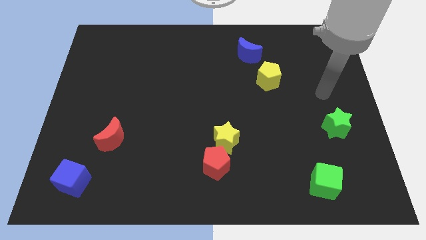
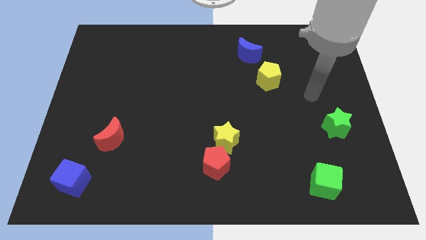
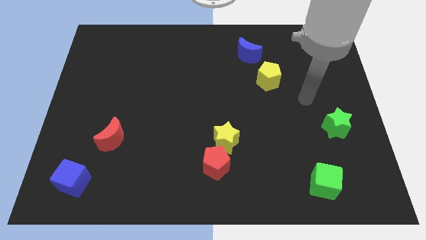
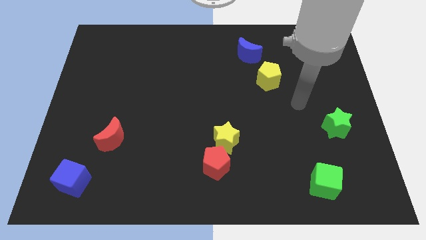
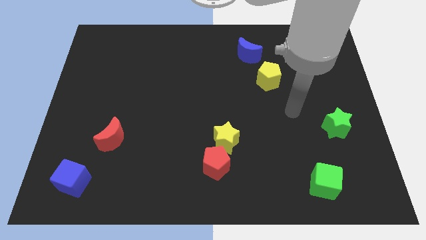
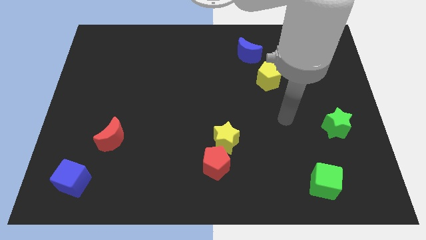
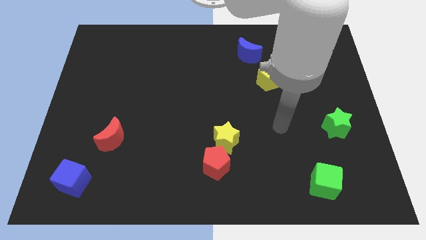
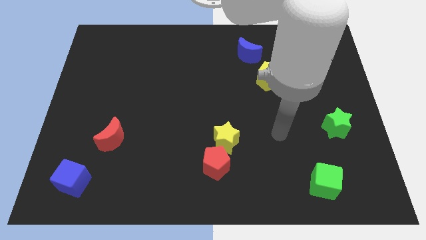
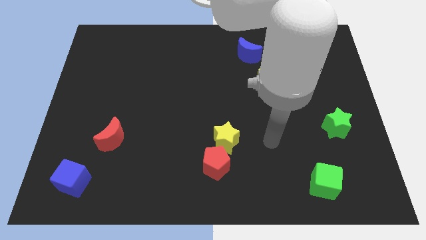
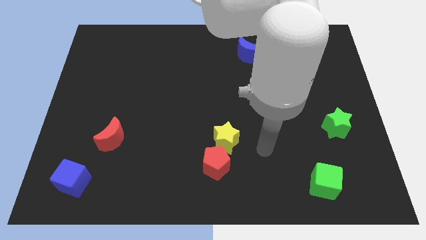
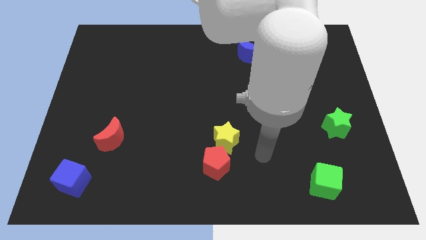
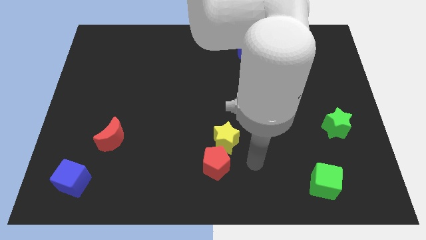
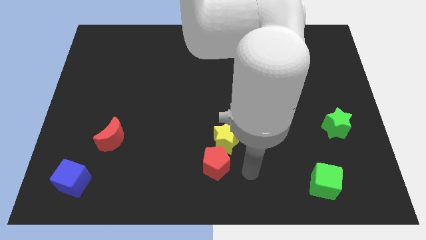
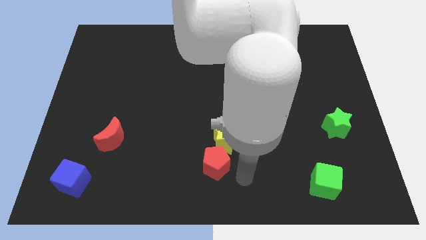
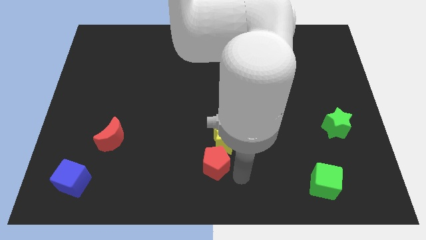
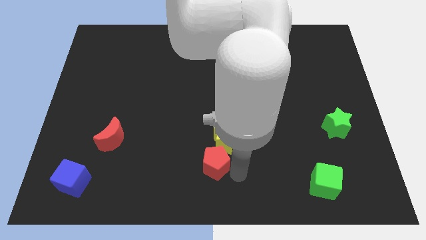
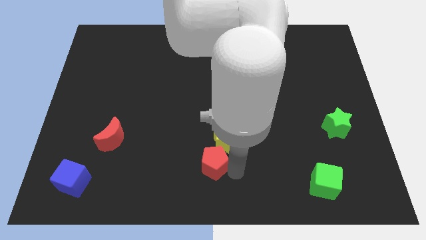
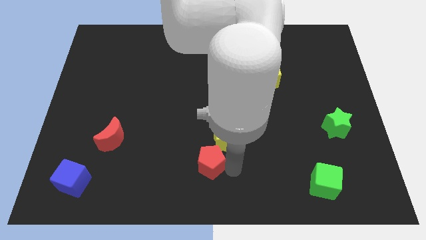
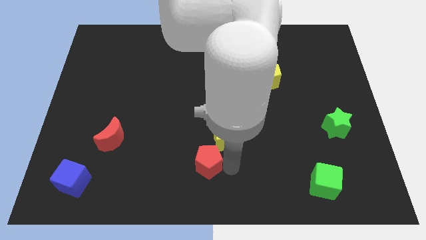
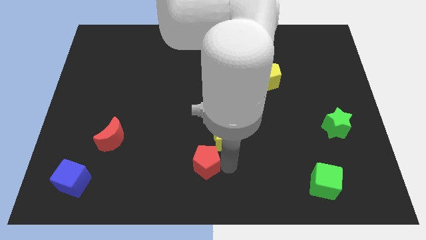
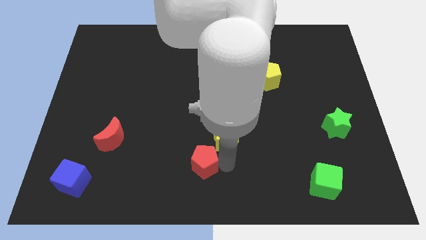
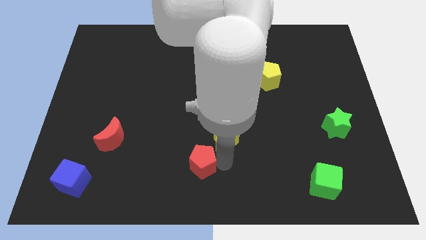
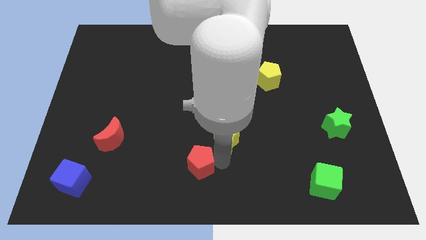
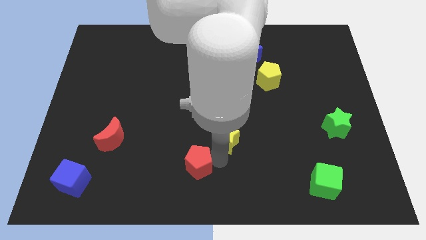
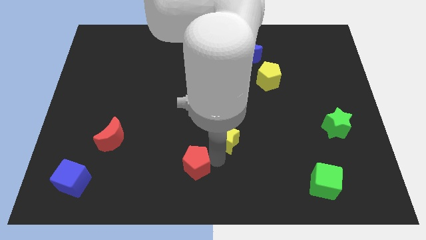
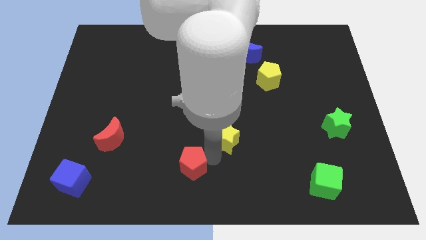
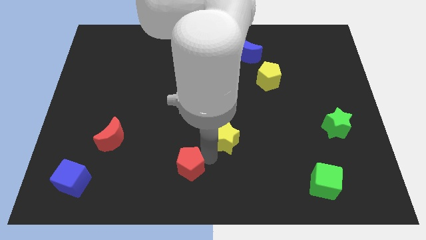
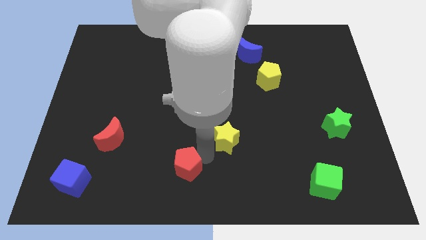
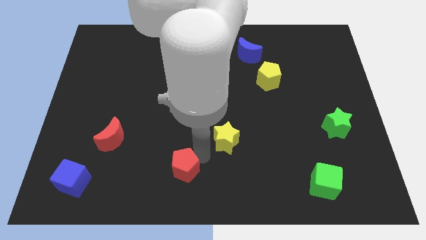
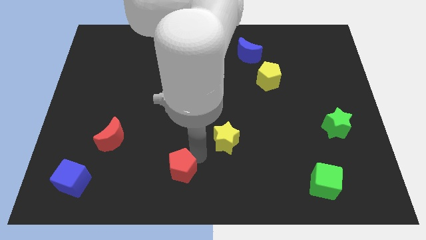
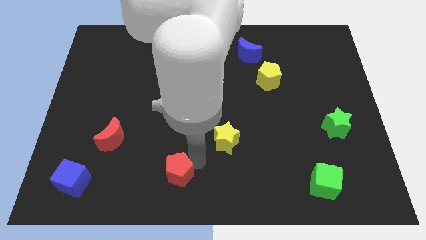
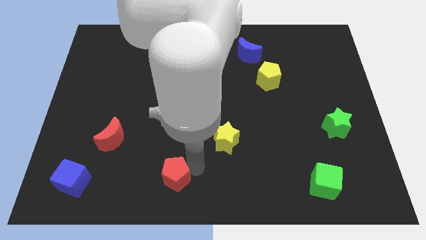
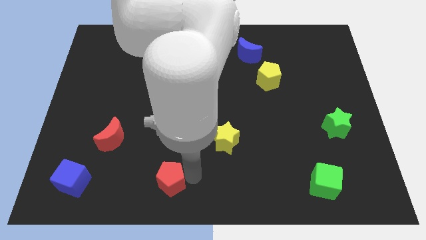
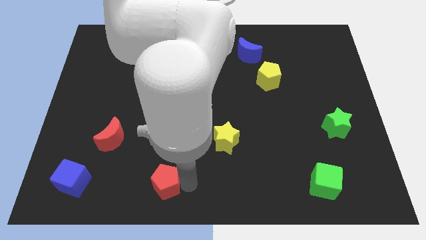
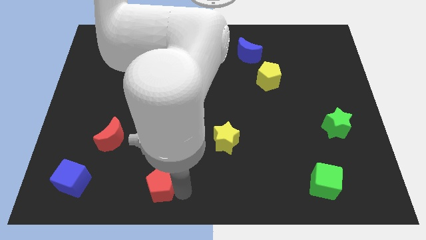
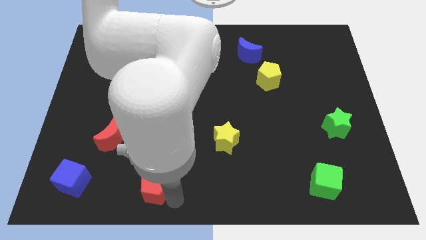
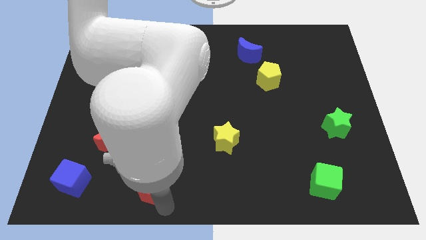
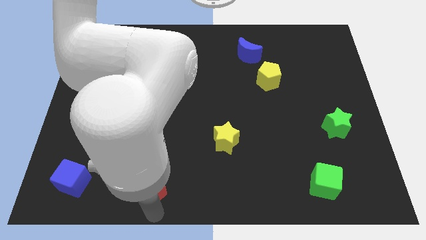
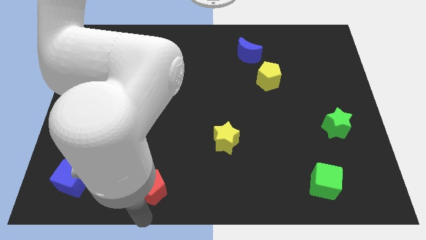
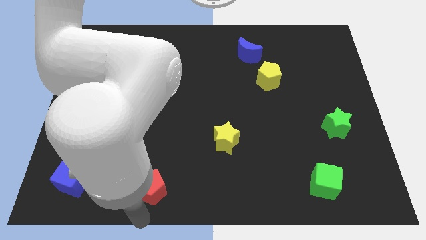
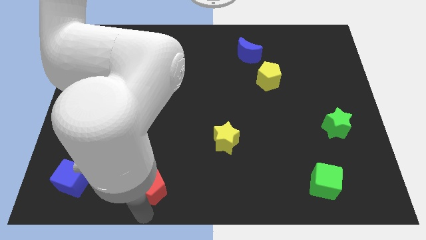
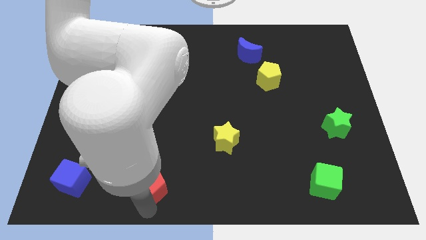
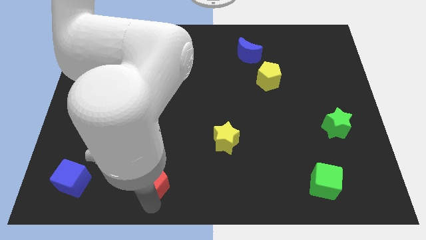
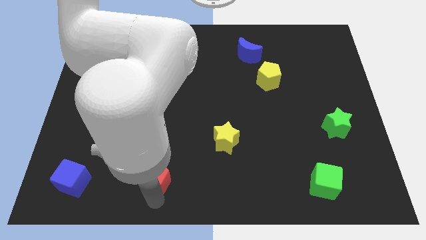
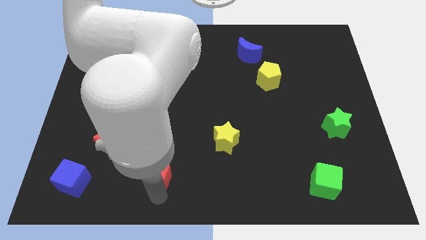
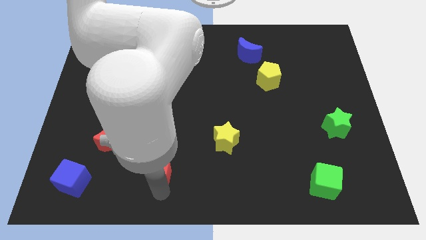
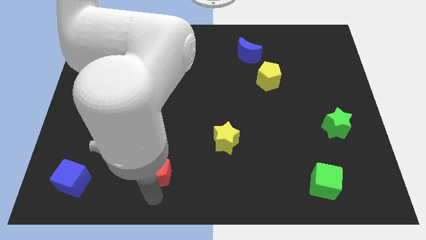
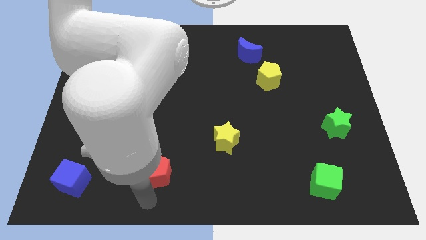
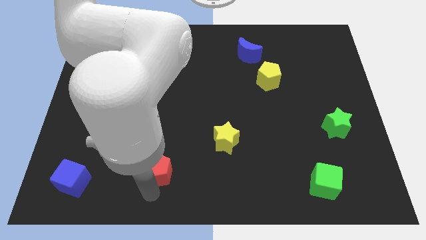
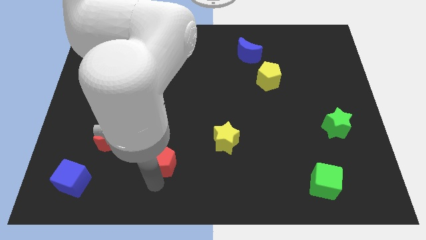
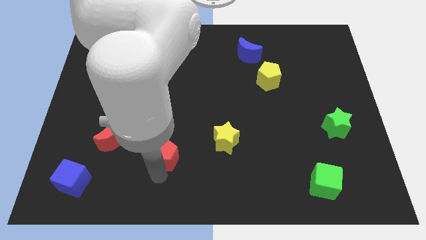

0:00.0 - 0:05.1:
push the red pentagon upwards and to the left a little bit

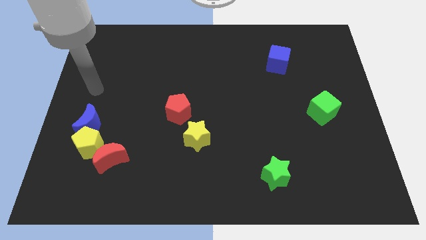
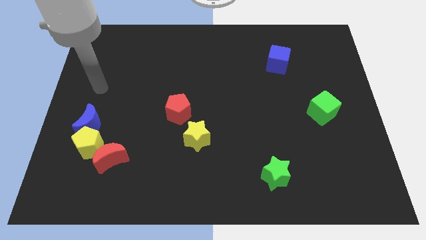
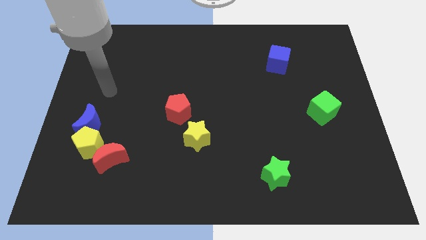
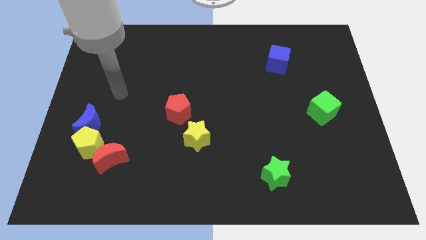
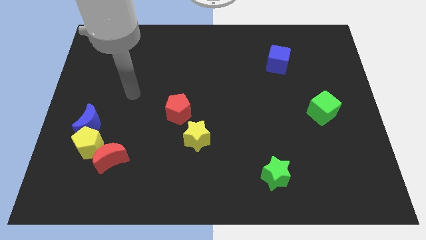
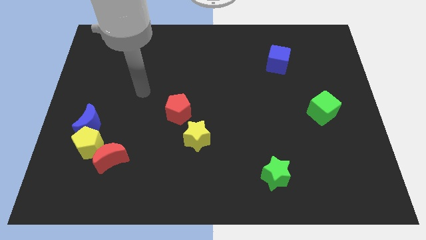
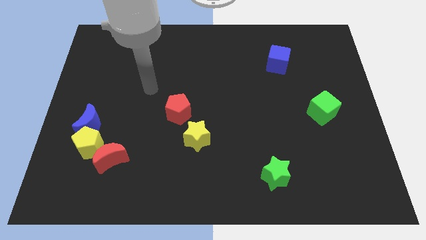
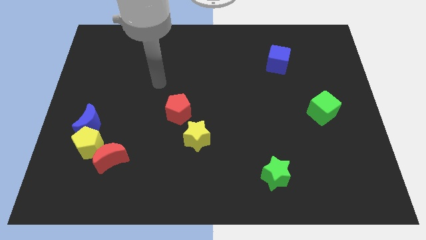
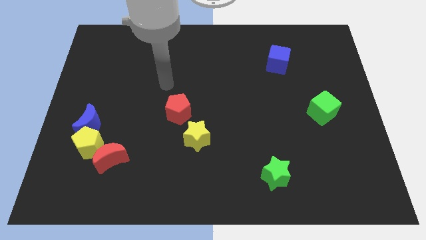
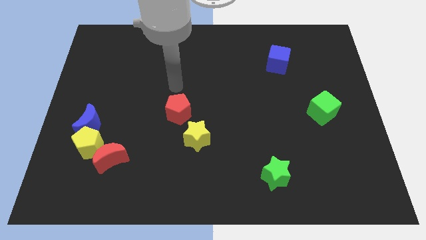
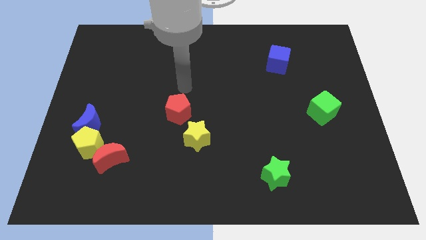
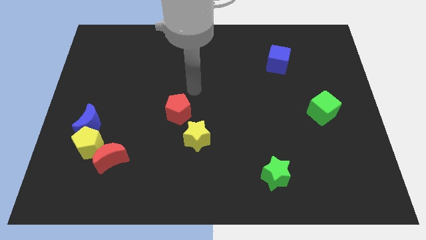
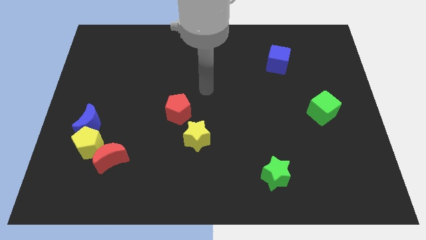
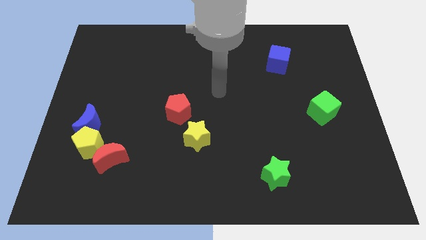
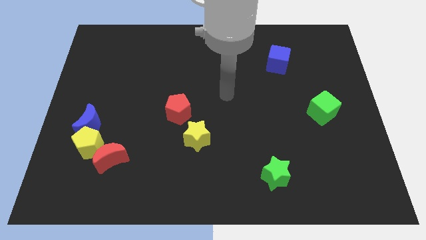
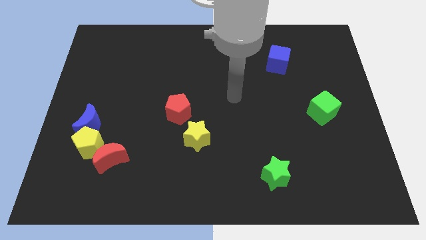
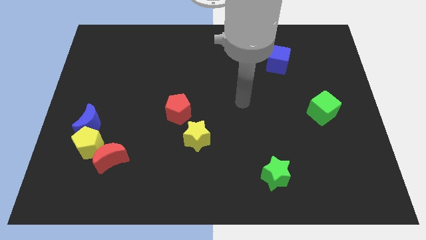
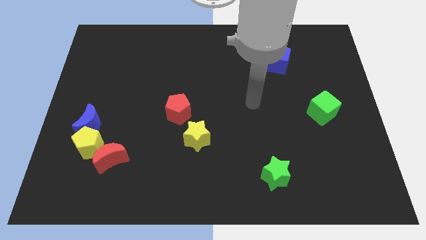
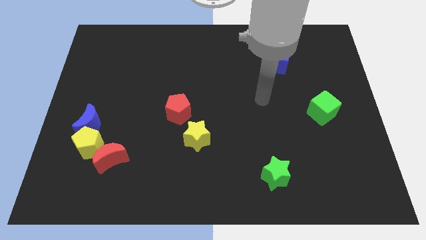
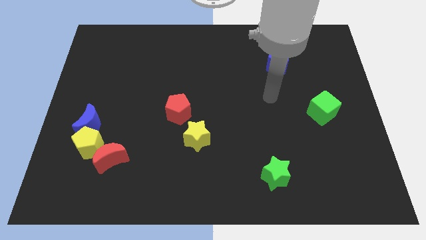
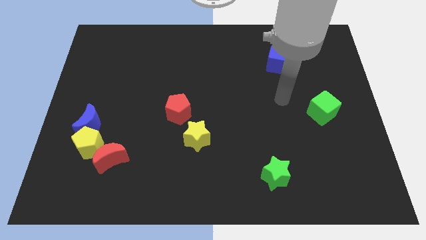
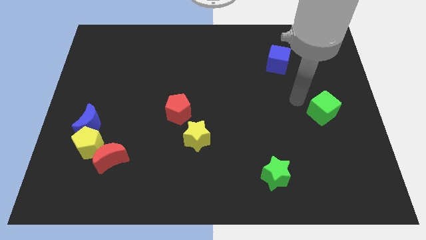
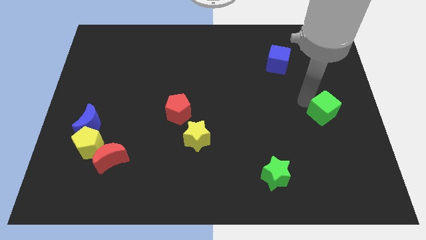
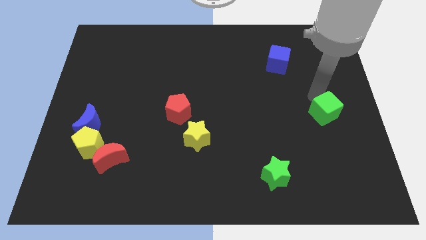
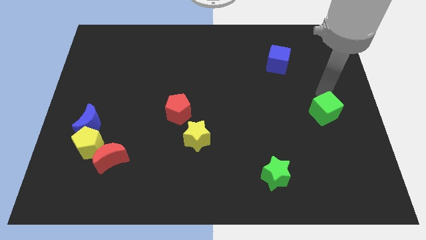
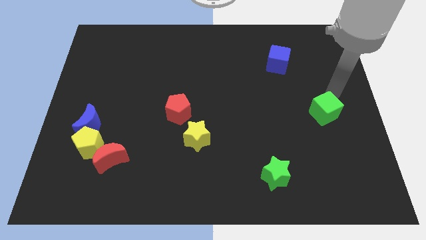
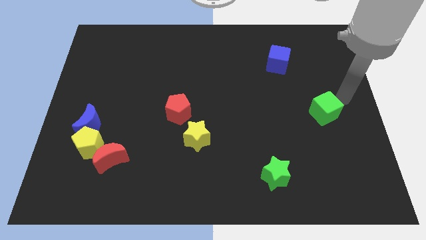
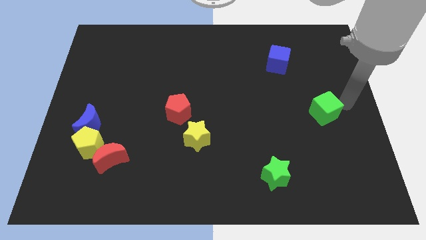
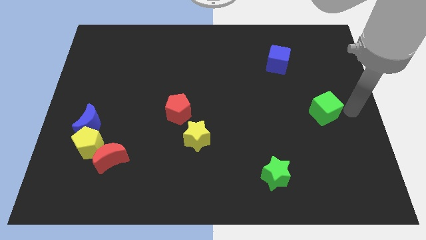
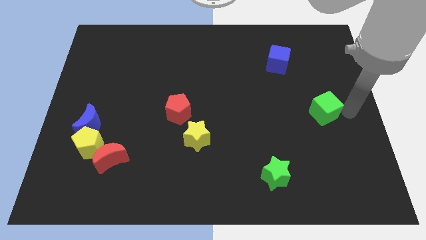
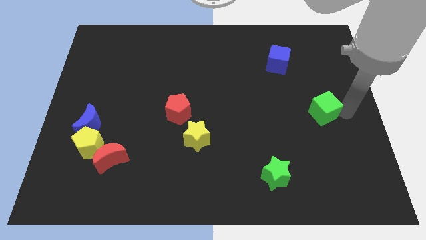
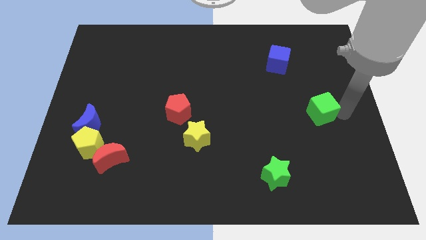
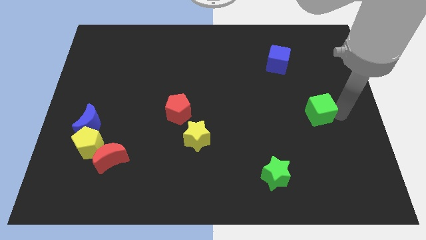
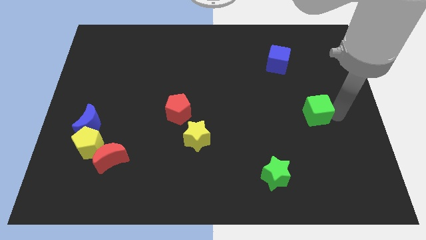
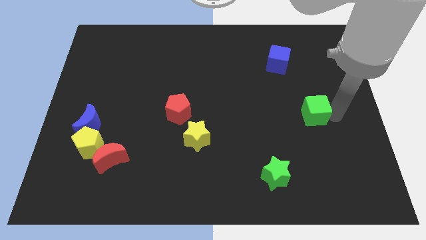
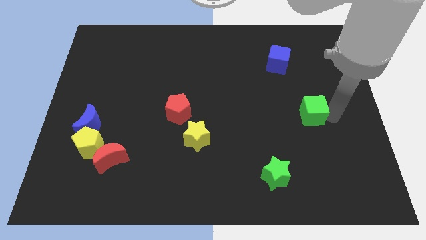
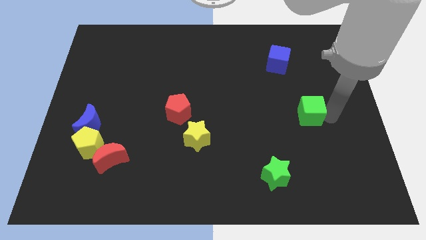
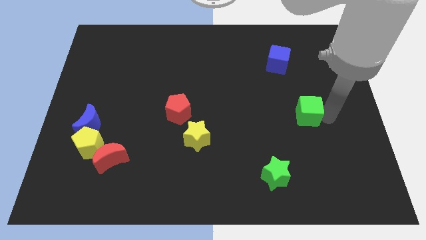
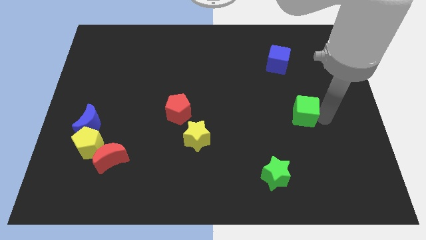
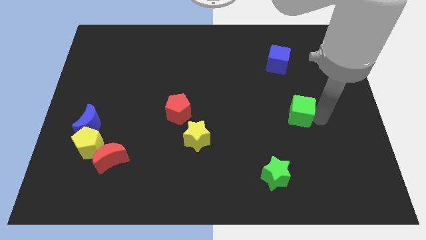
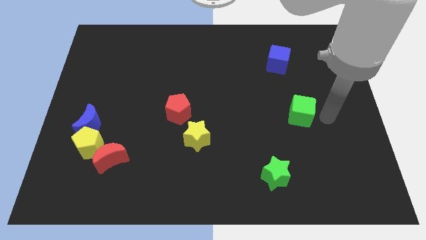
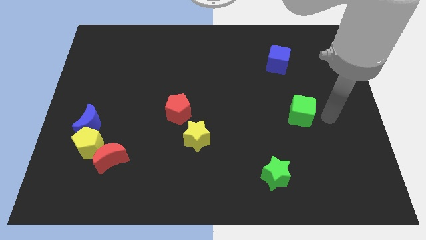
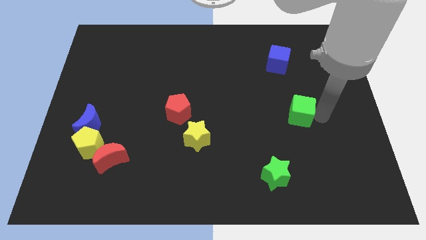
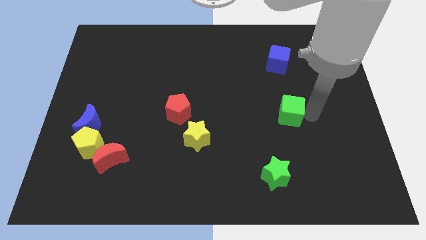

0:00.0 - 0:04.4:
slide the green cube a little left
